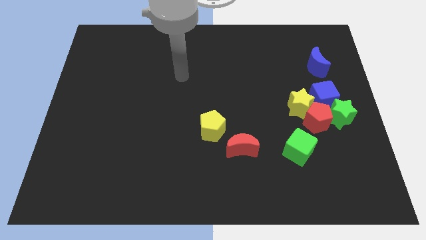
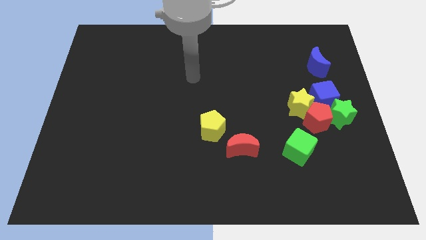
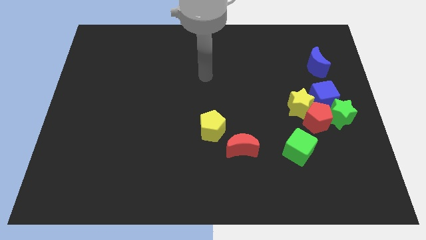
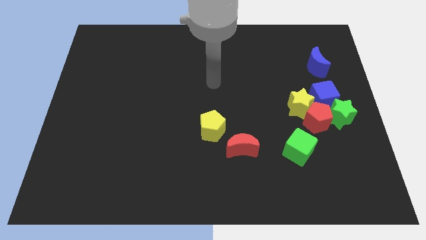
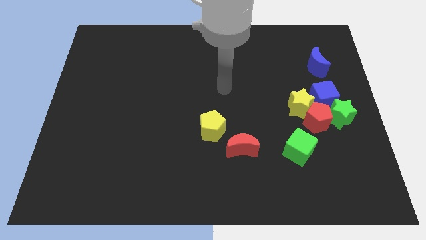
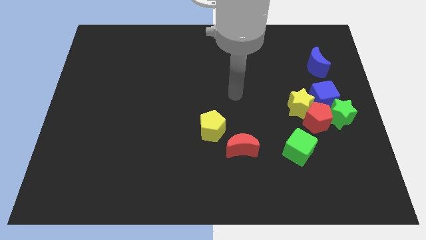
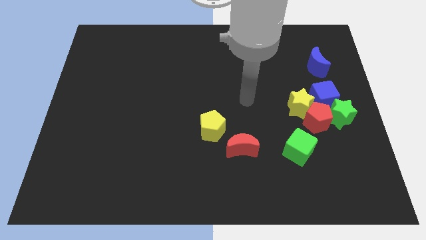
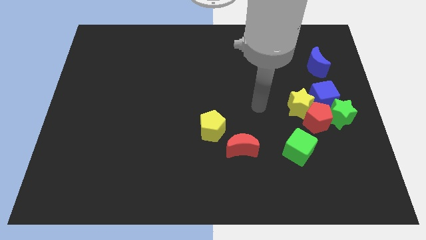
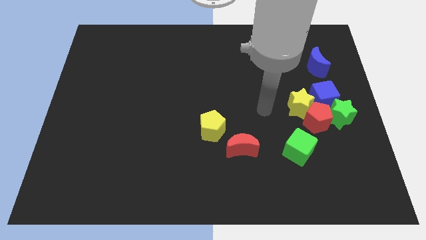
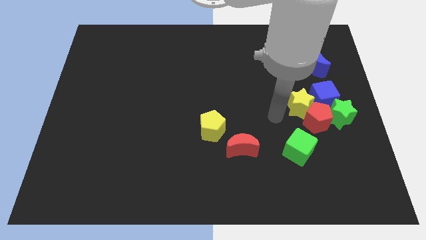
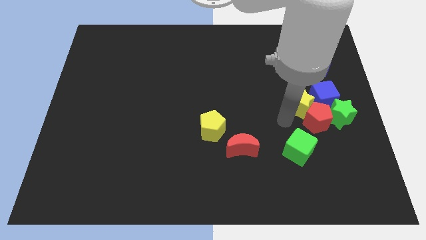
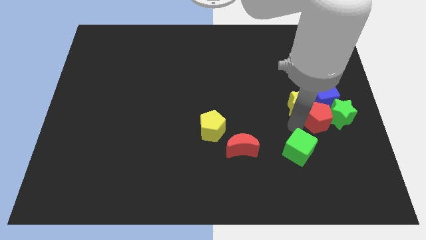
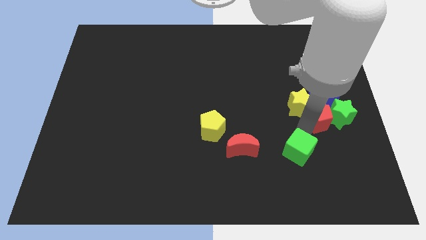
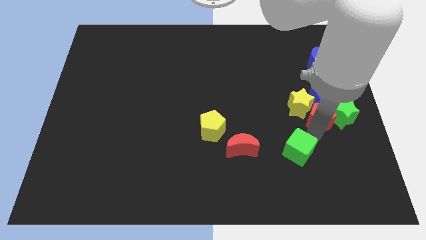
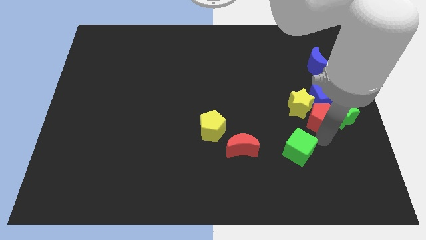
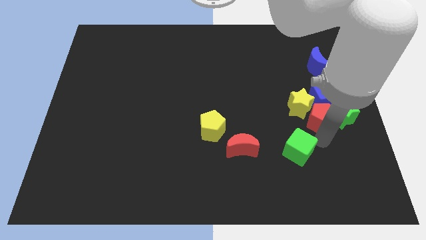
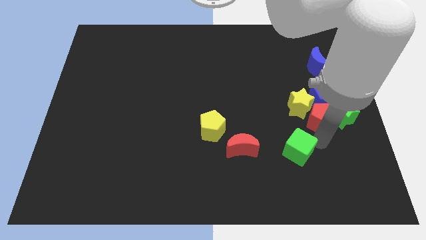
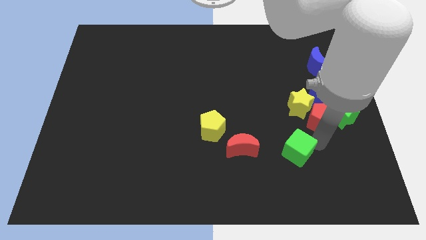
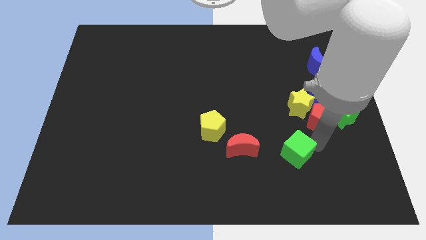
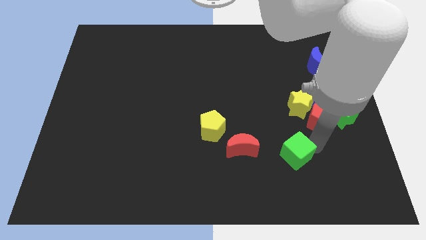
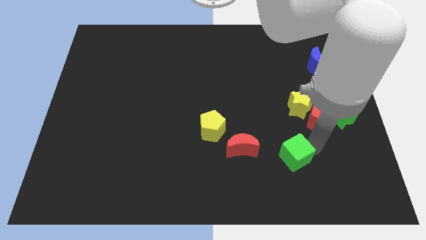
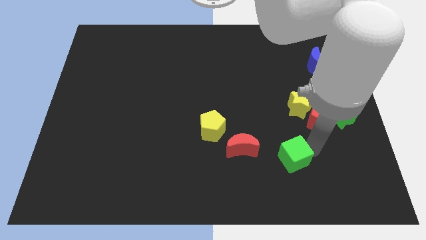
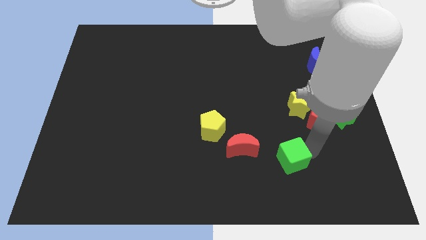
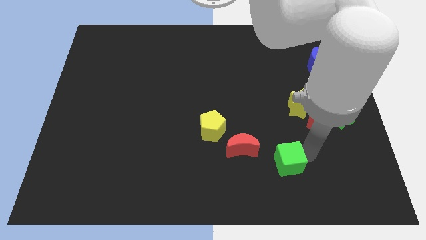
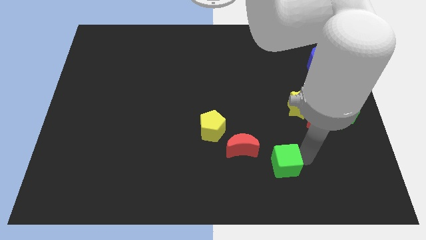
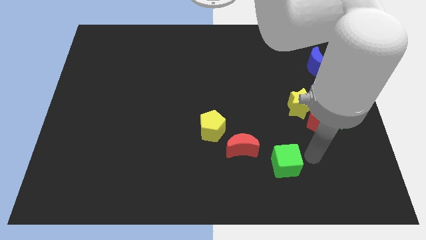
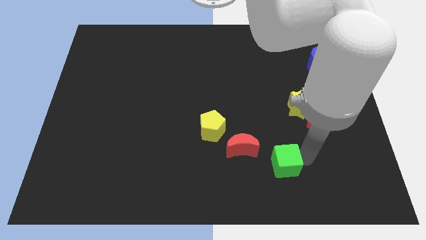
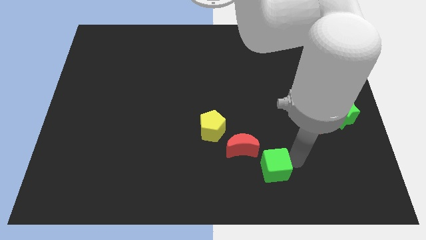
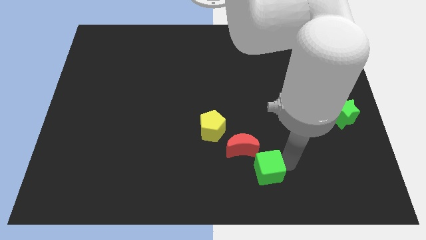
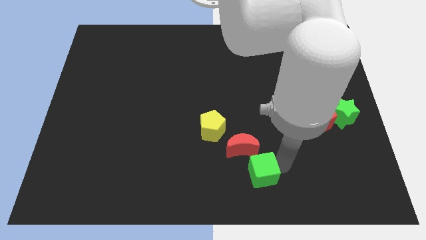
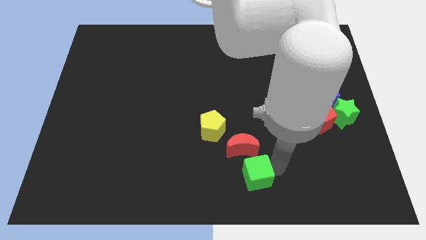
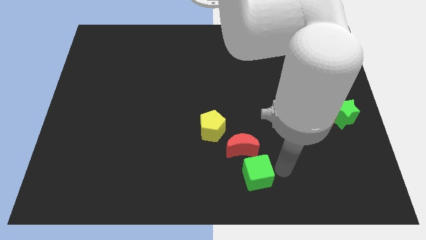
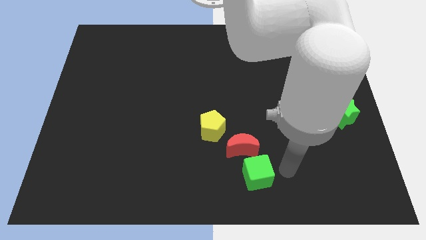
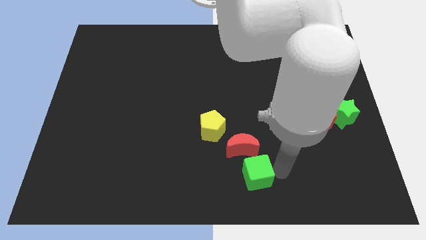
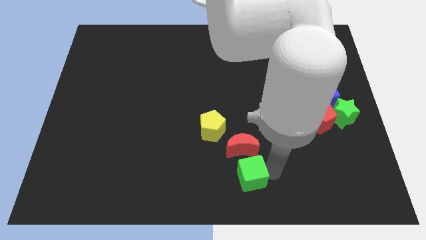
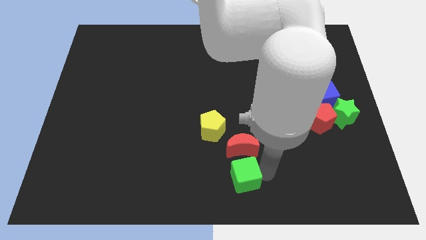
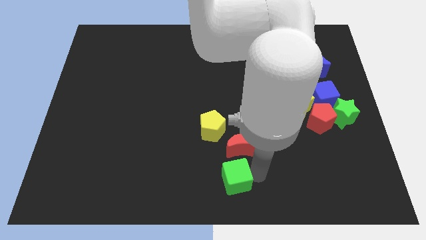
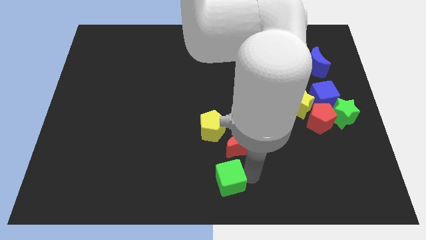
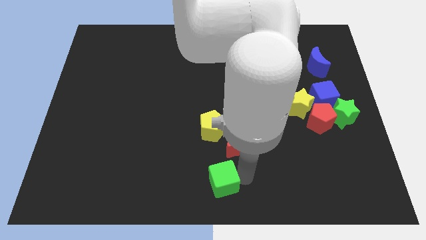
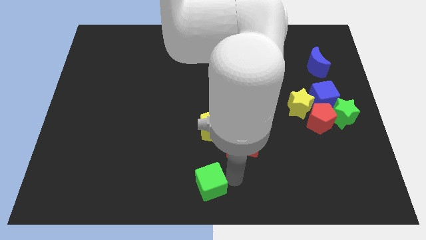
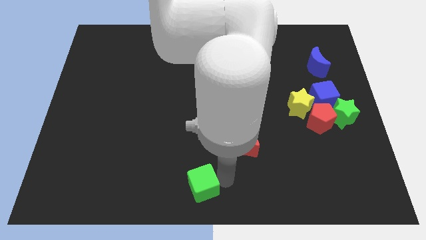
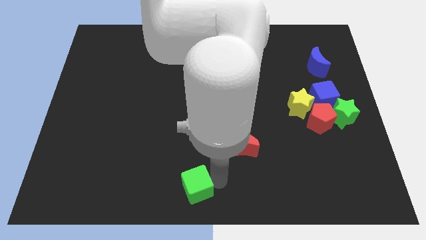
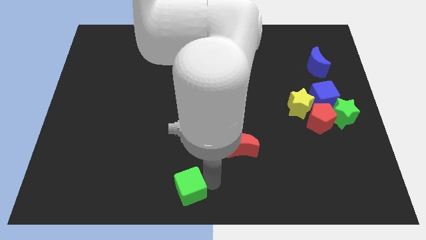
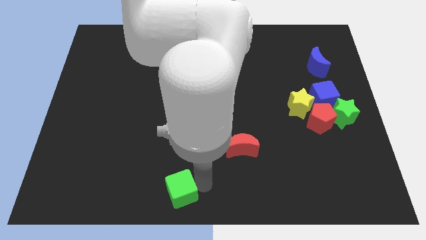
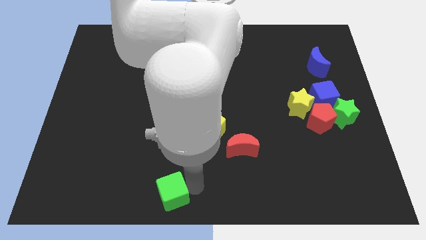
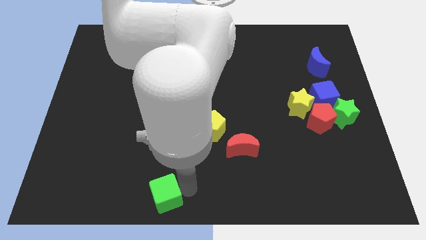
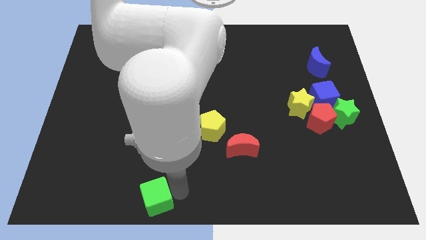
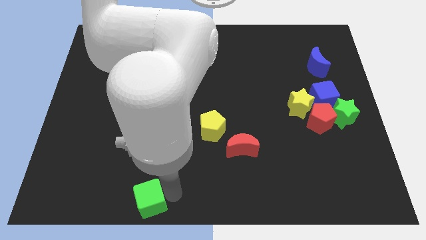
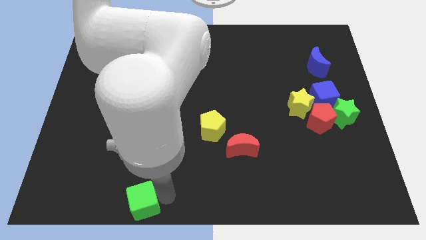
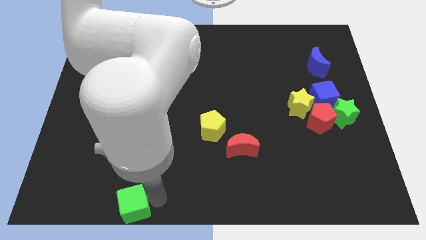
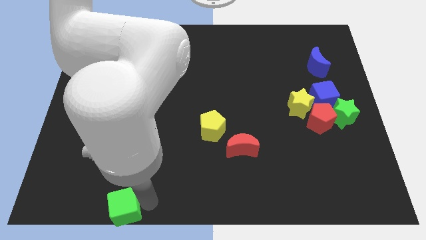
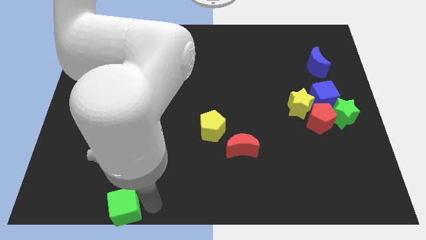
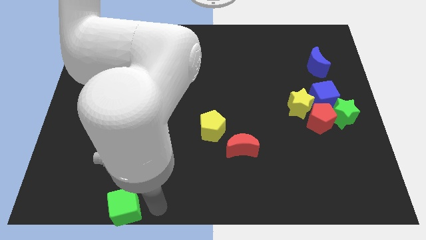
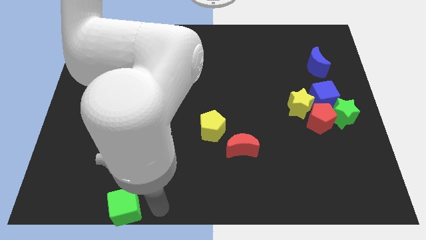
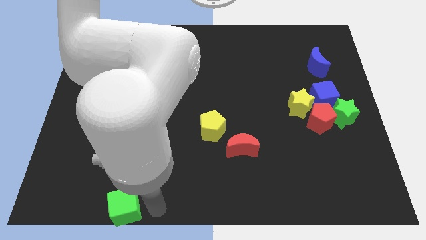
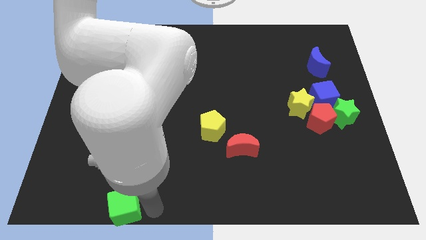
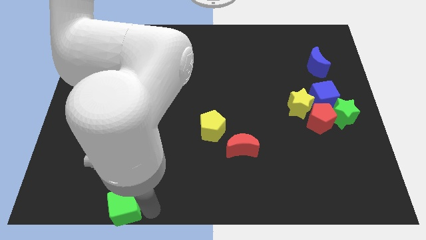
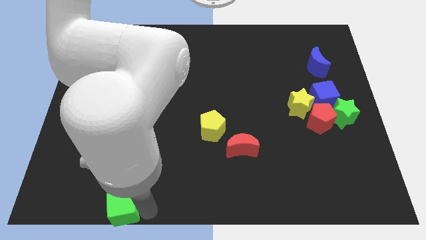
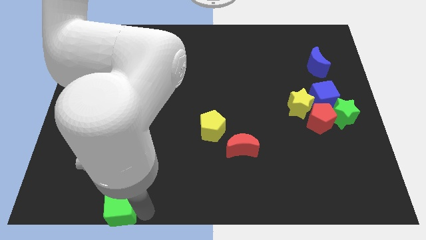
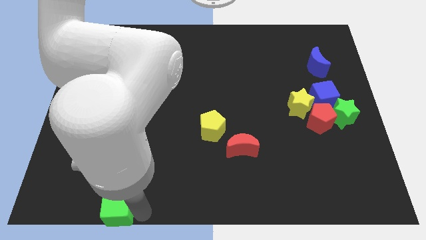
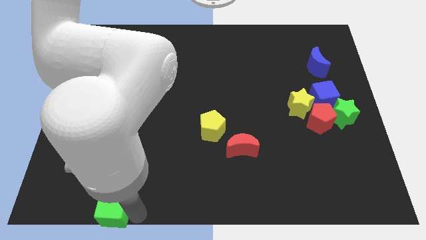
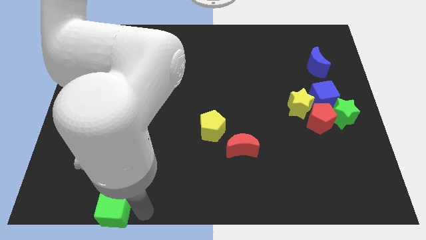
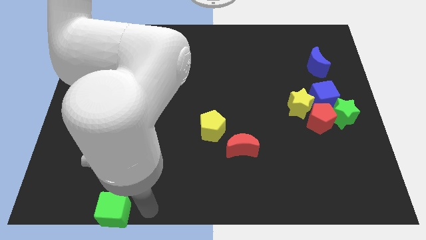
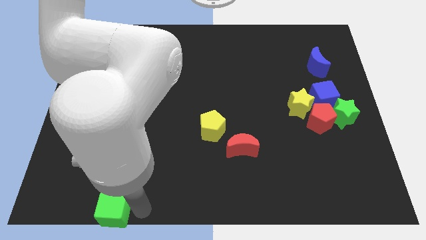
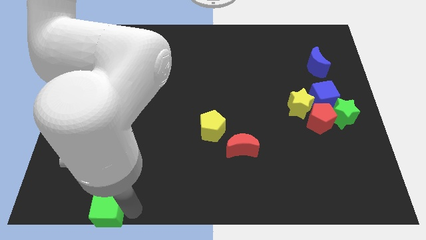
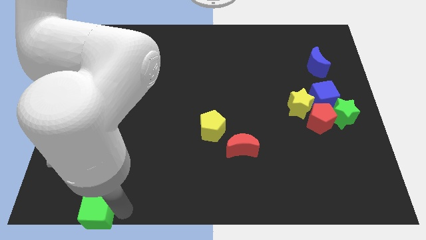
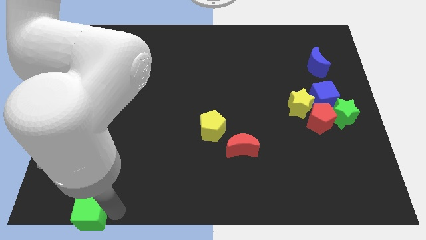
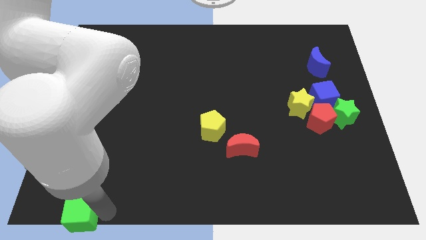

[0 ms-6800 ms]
push the green cube to the bottom left
